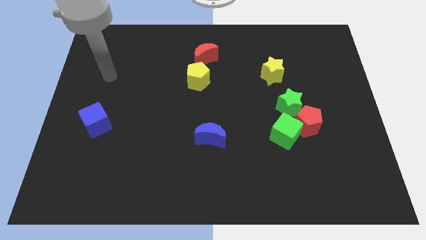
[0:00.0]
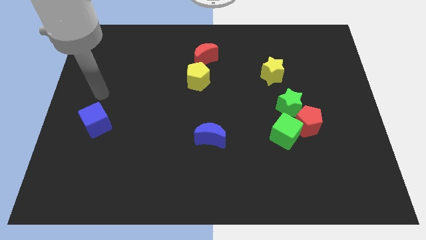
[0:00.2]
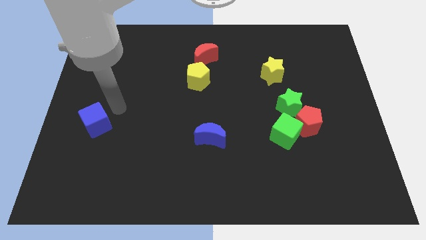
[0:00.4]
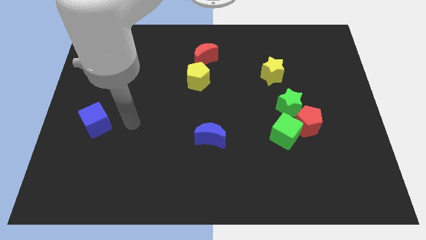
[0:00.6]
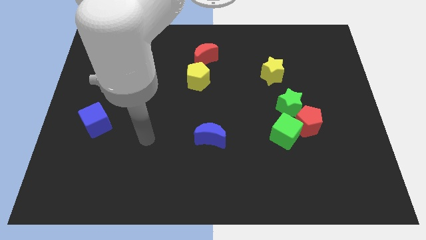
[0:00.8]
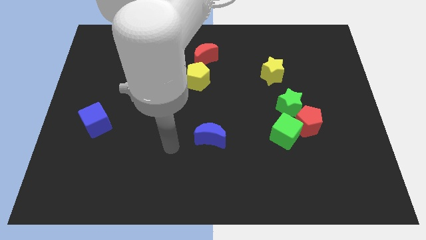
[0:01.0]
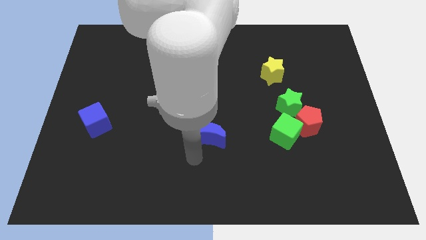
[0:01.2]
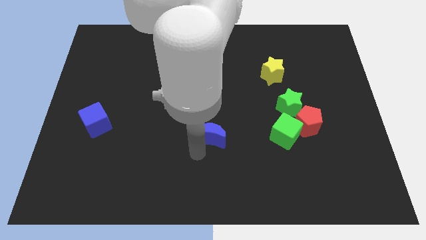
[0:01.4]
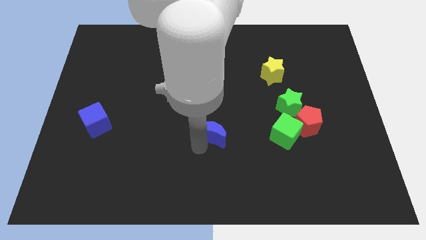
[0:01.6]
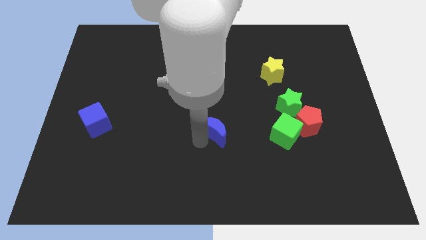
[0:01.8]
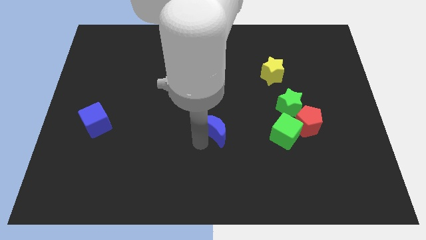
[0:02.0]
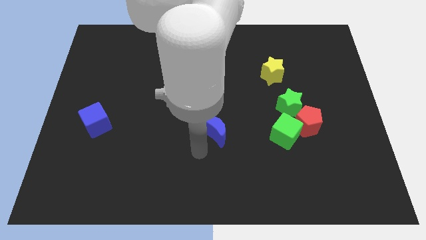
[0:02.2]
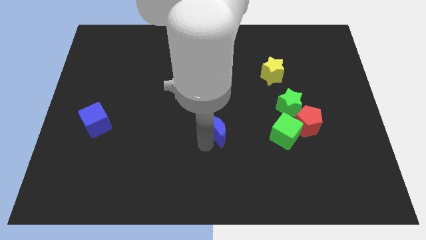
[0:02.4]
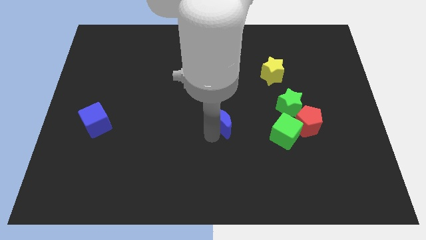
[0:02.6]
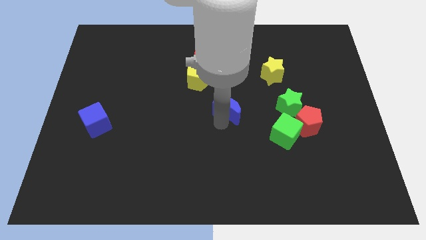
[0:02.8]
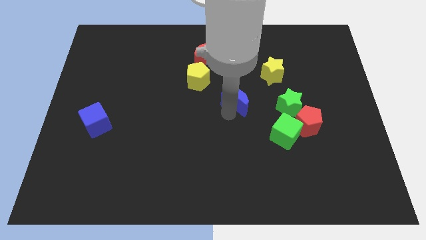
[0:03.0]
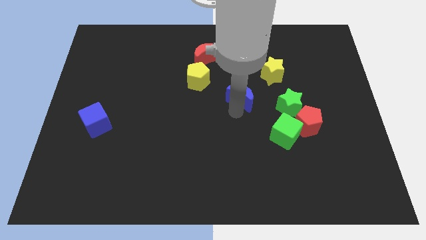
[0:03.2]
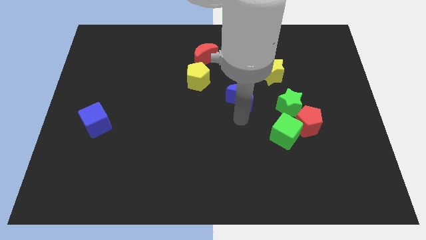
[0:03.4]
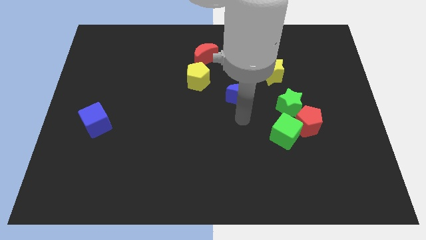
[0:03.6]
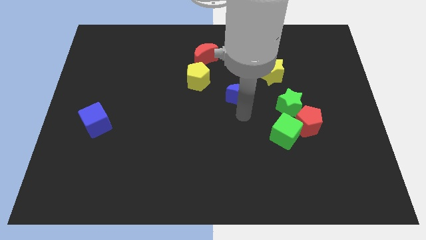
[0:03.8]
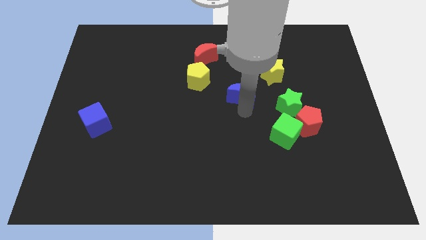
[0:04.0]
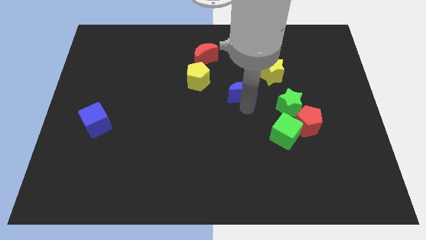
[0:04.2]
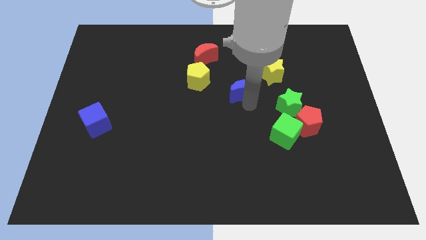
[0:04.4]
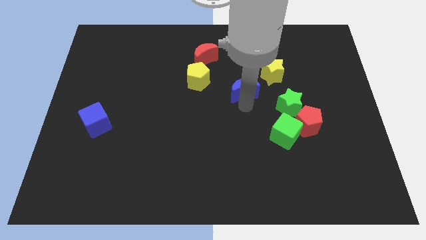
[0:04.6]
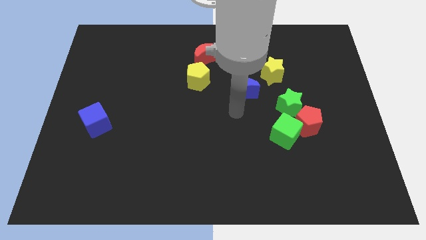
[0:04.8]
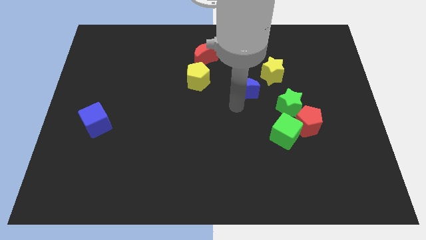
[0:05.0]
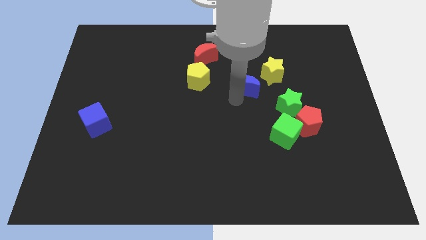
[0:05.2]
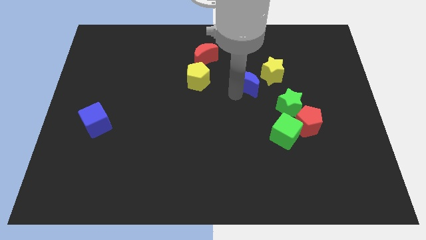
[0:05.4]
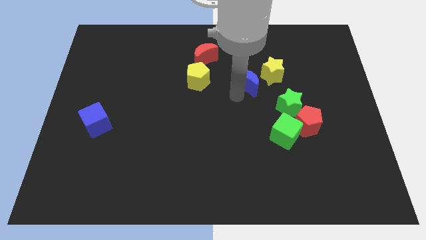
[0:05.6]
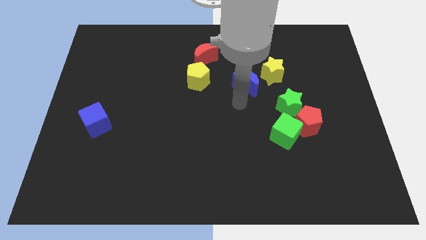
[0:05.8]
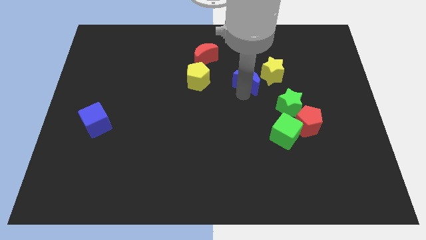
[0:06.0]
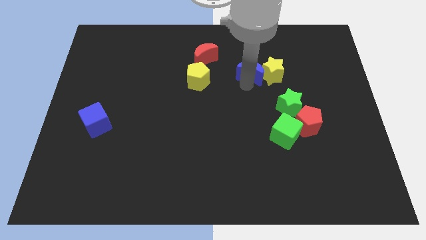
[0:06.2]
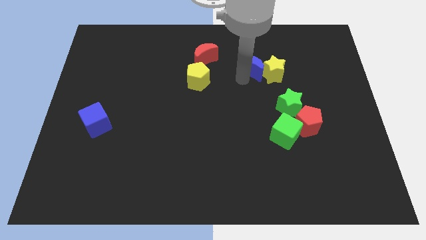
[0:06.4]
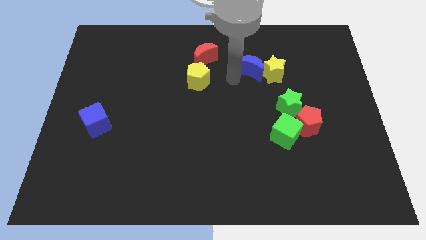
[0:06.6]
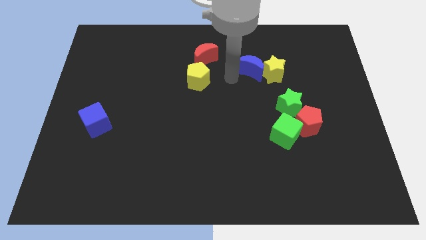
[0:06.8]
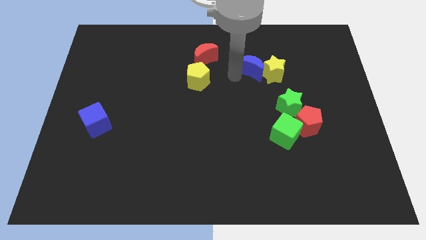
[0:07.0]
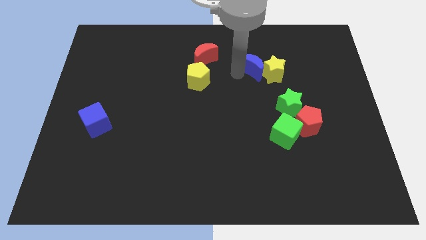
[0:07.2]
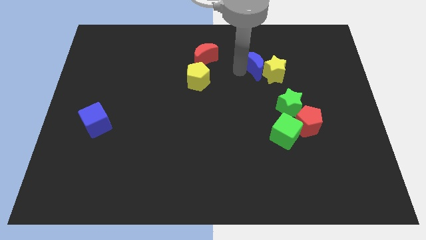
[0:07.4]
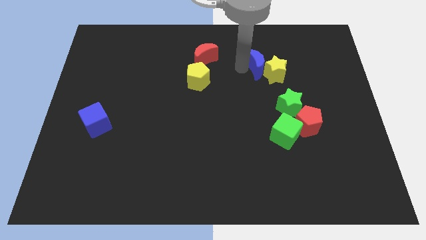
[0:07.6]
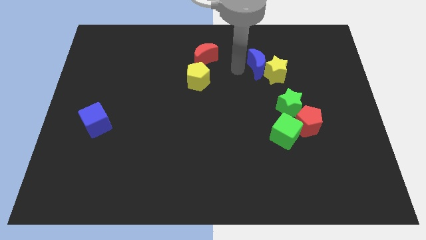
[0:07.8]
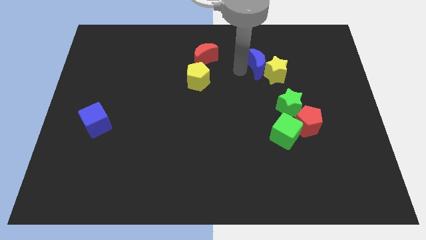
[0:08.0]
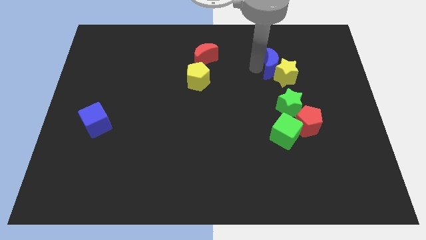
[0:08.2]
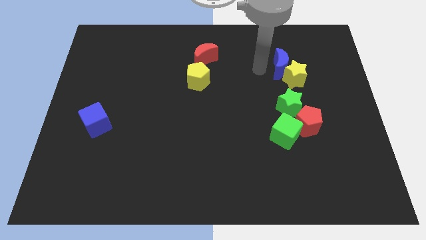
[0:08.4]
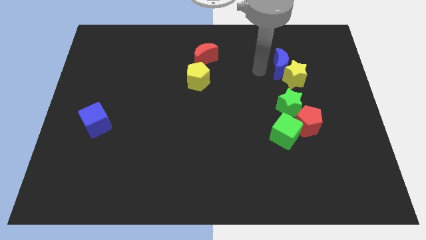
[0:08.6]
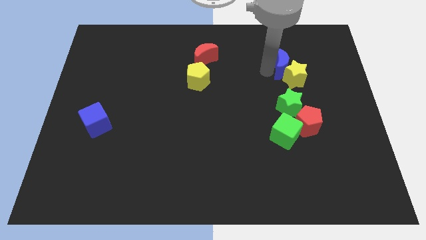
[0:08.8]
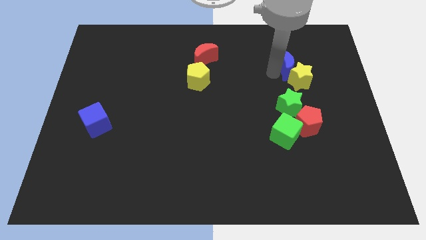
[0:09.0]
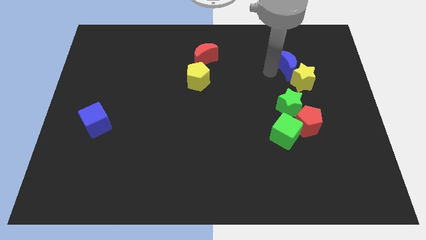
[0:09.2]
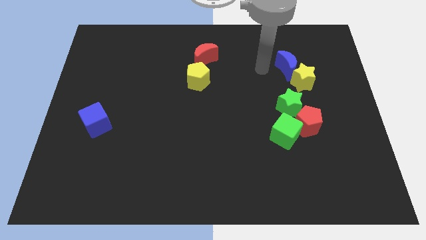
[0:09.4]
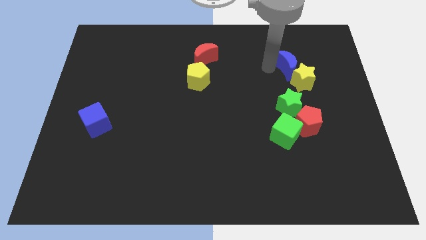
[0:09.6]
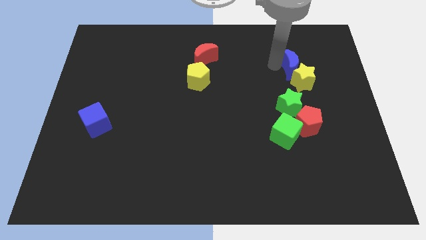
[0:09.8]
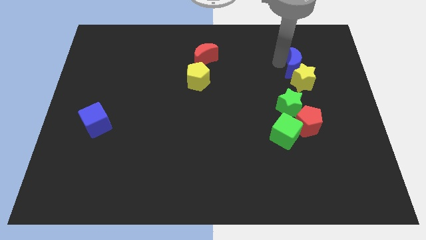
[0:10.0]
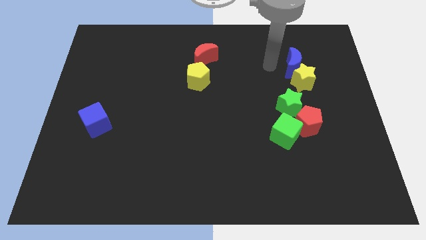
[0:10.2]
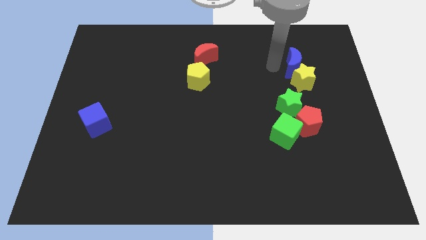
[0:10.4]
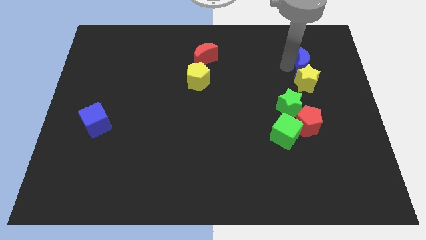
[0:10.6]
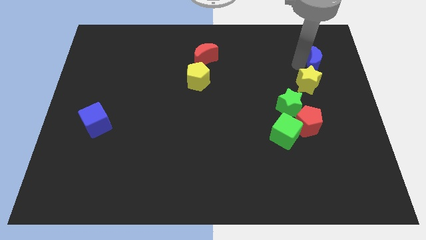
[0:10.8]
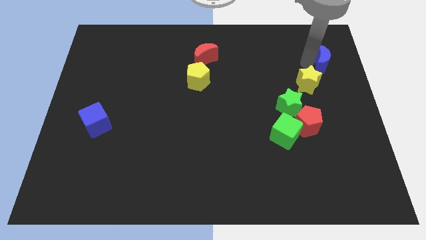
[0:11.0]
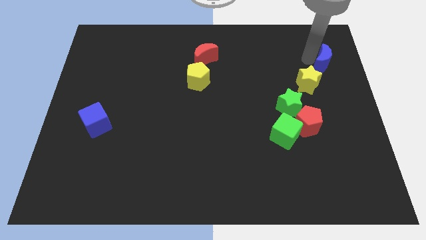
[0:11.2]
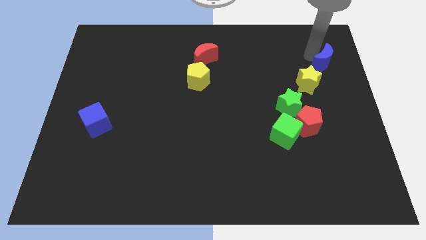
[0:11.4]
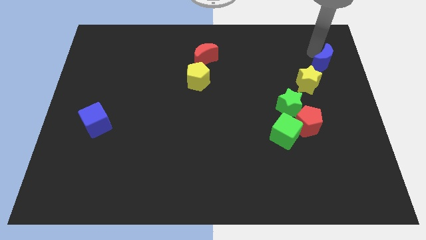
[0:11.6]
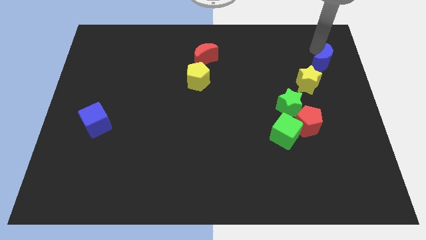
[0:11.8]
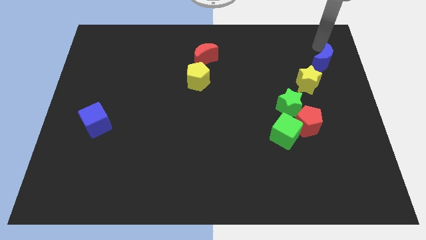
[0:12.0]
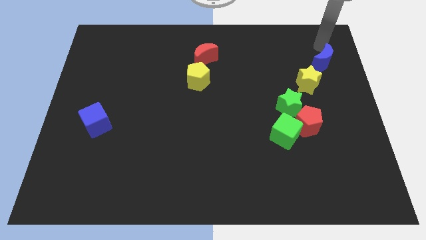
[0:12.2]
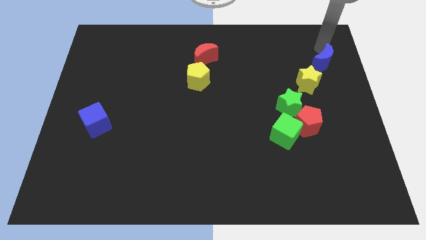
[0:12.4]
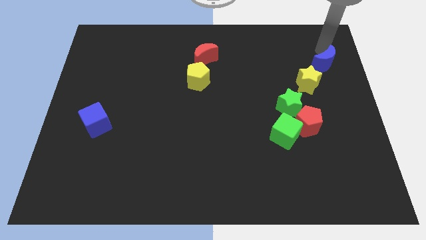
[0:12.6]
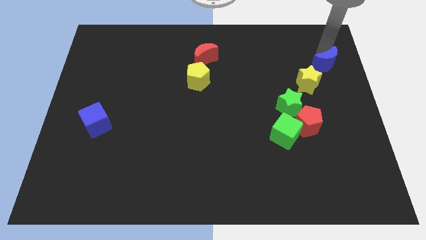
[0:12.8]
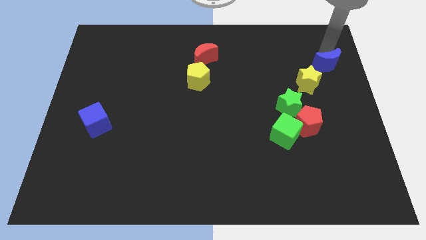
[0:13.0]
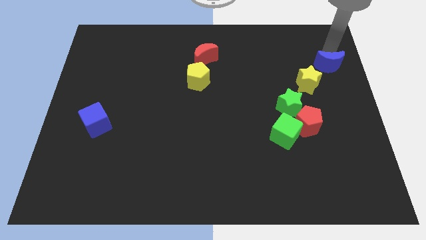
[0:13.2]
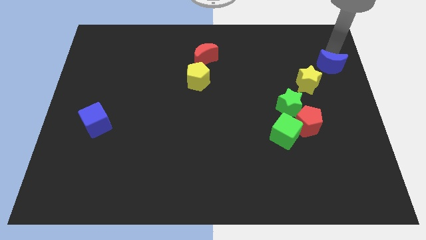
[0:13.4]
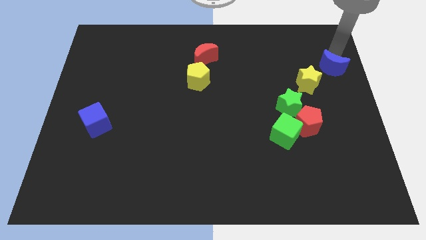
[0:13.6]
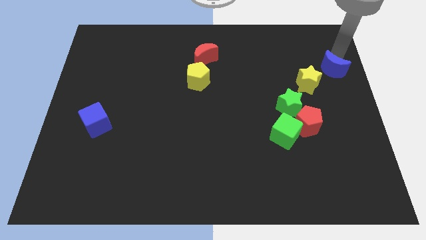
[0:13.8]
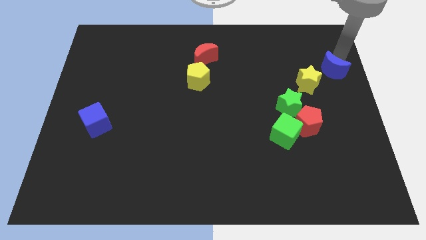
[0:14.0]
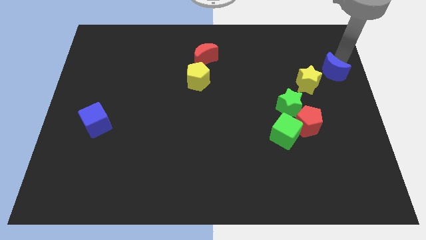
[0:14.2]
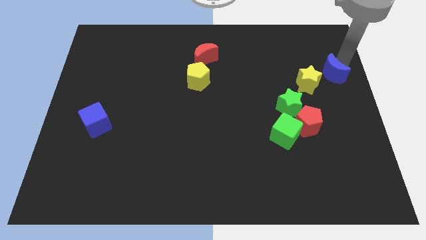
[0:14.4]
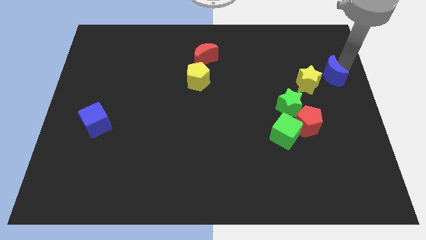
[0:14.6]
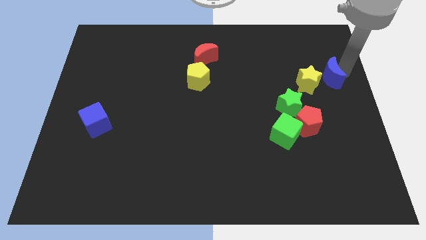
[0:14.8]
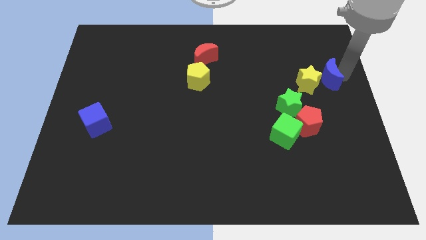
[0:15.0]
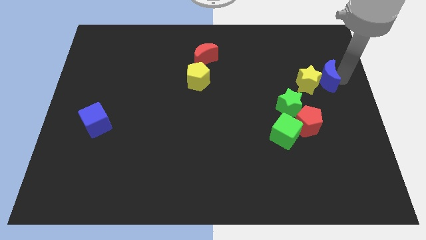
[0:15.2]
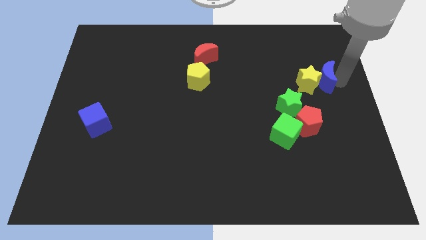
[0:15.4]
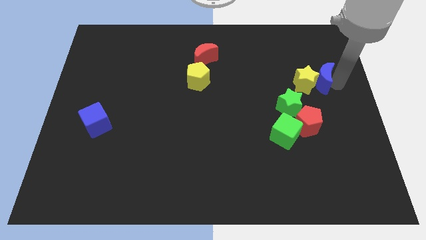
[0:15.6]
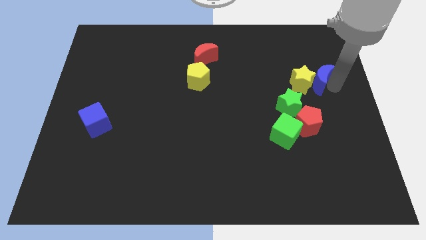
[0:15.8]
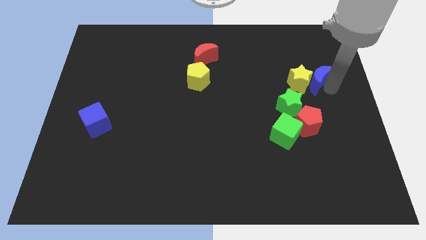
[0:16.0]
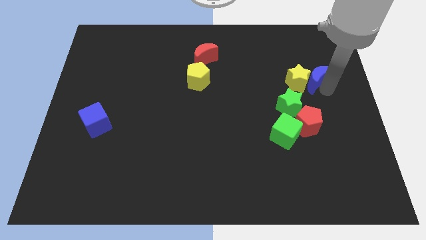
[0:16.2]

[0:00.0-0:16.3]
put the blue moon to the top right side of the yellow star
